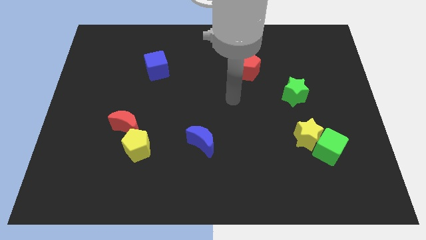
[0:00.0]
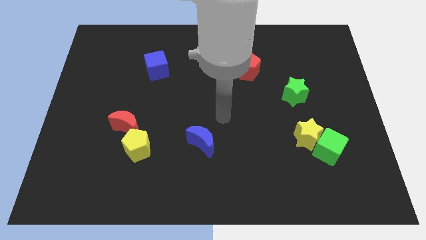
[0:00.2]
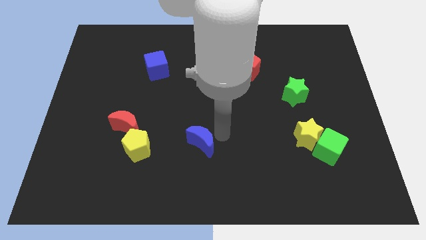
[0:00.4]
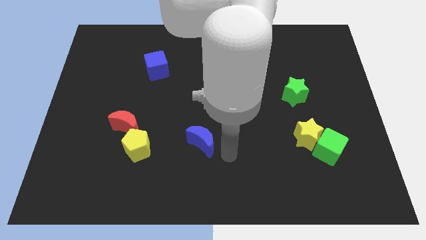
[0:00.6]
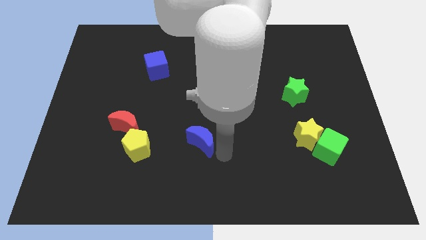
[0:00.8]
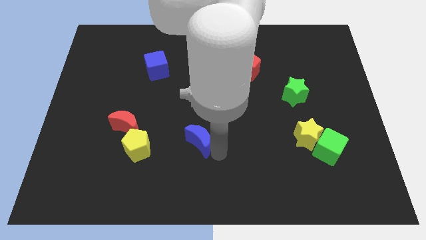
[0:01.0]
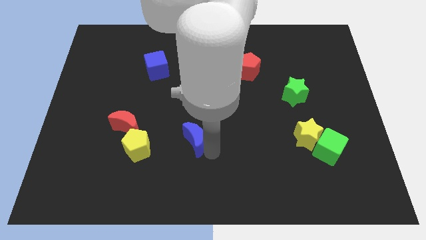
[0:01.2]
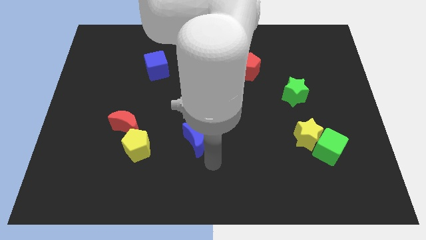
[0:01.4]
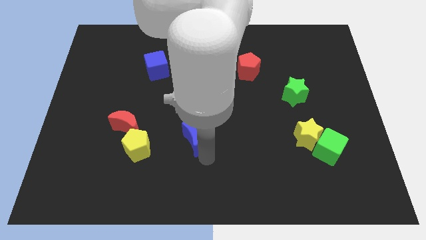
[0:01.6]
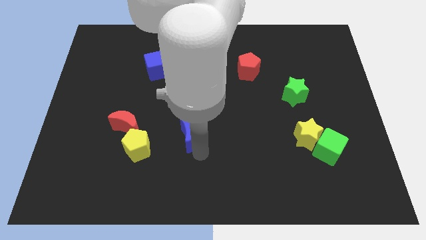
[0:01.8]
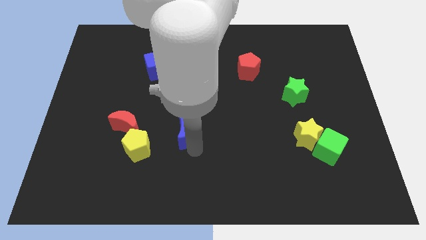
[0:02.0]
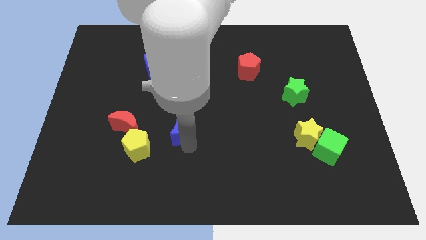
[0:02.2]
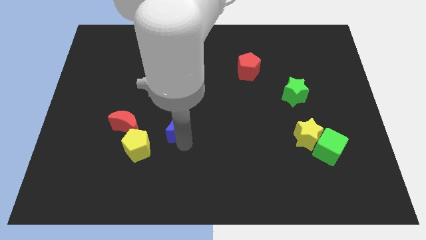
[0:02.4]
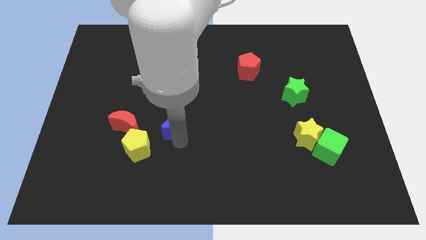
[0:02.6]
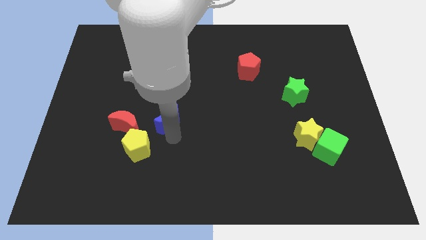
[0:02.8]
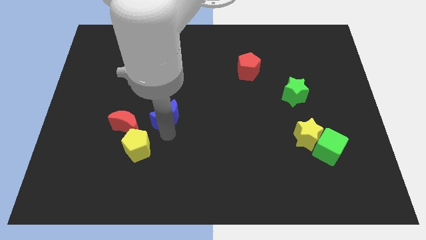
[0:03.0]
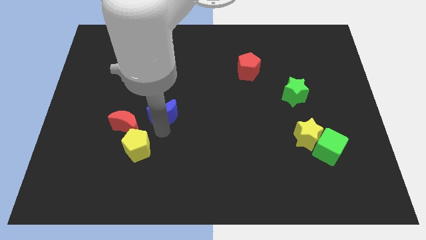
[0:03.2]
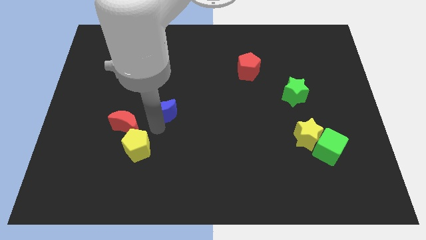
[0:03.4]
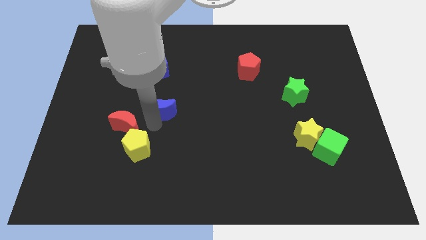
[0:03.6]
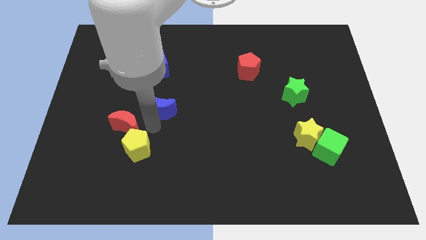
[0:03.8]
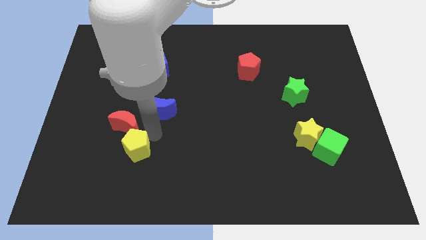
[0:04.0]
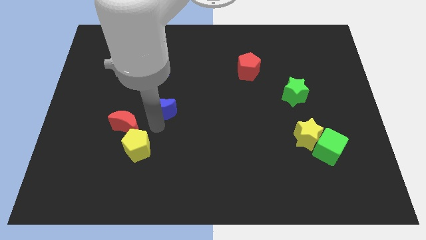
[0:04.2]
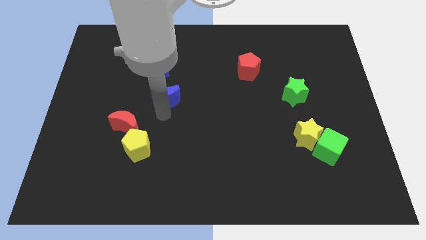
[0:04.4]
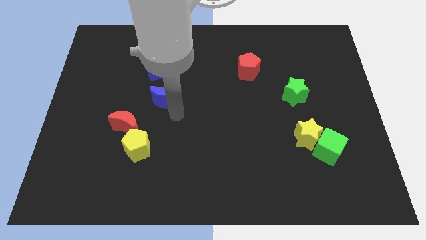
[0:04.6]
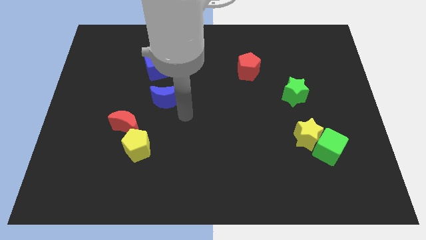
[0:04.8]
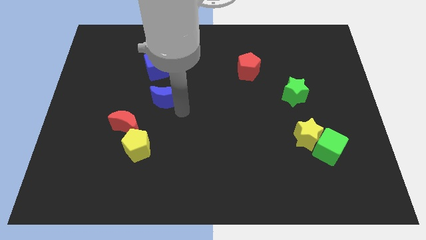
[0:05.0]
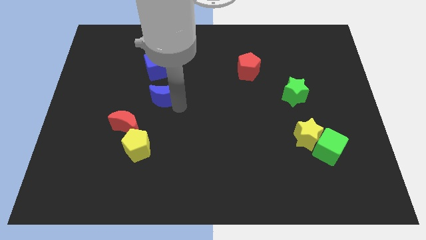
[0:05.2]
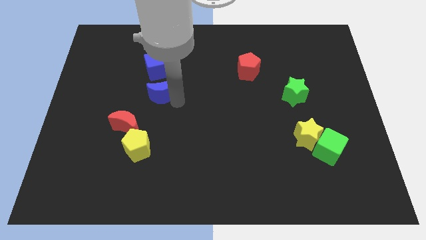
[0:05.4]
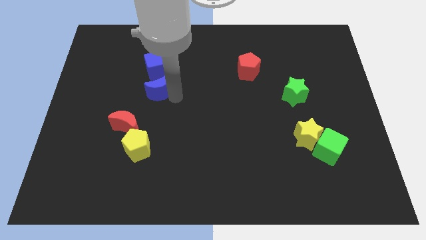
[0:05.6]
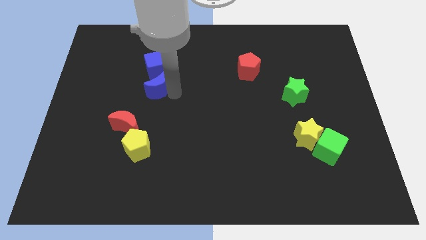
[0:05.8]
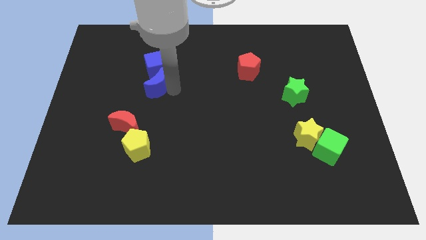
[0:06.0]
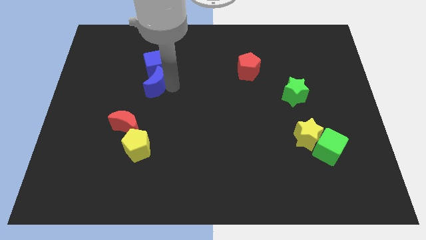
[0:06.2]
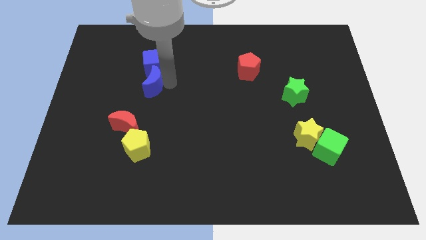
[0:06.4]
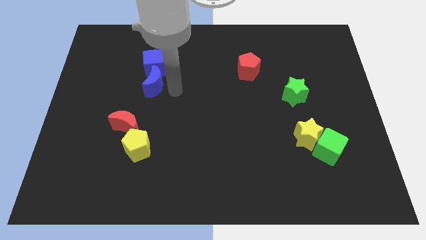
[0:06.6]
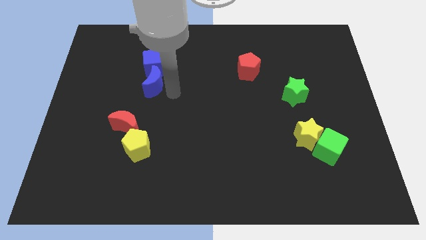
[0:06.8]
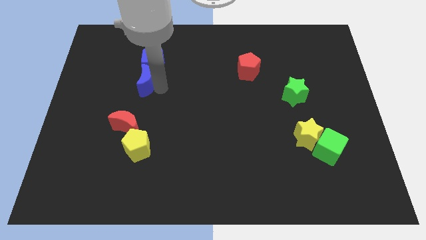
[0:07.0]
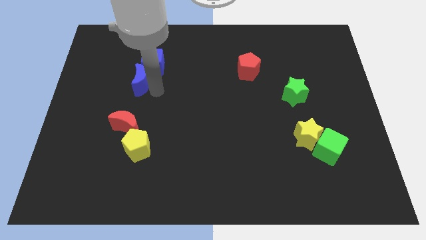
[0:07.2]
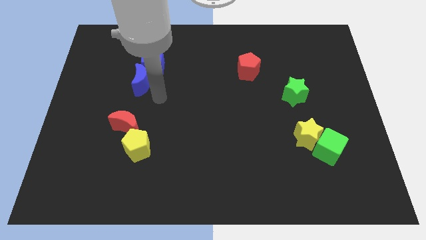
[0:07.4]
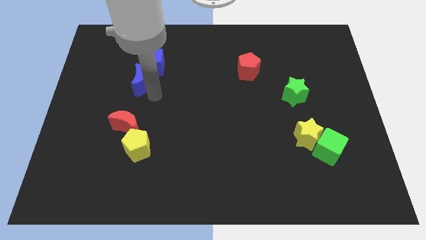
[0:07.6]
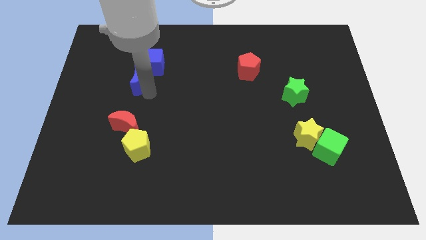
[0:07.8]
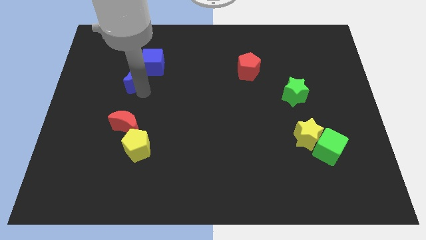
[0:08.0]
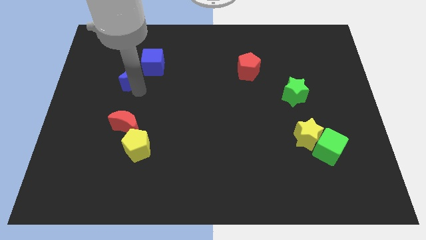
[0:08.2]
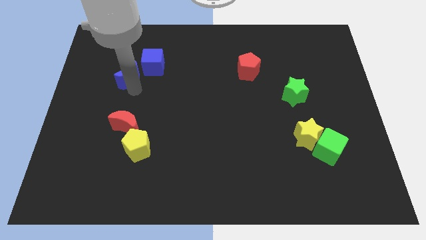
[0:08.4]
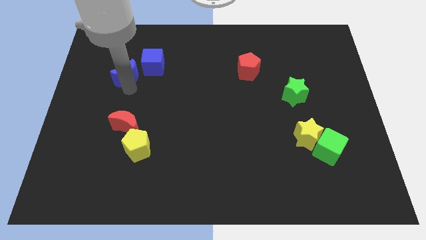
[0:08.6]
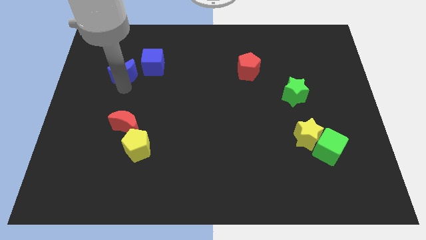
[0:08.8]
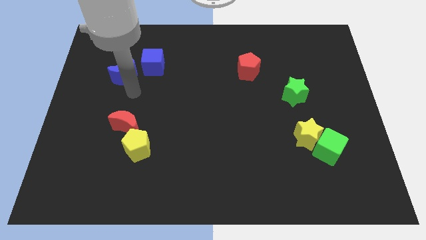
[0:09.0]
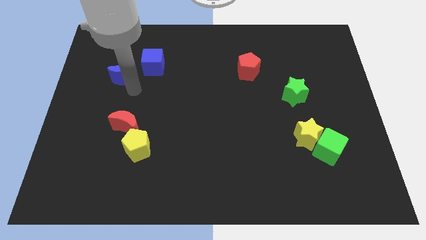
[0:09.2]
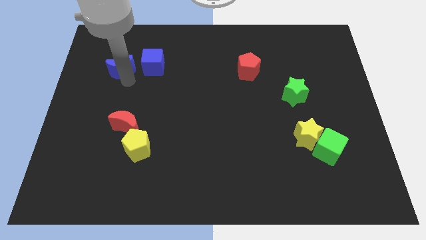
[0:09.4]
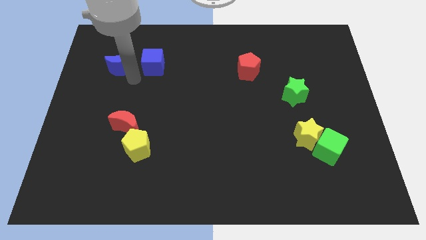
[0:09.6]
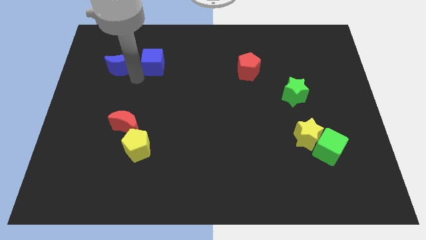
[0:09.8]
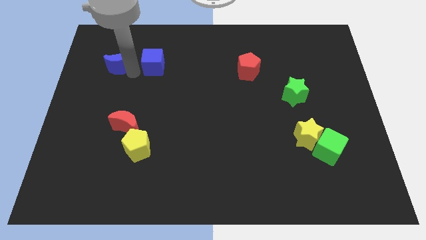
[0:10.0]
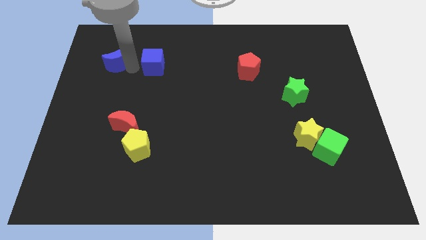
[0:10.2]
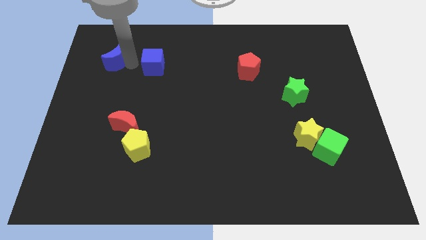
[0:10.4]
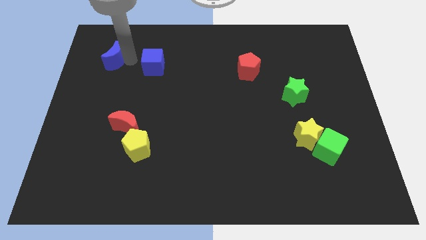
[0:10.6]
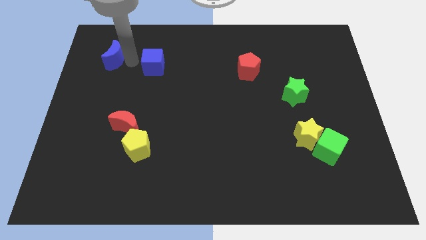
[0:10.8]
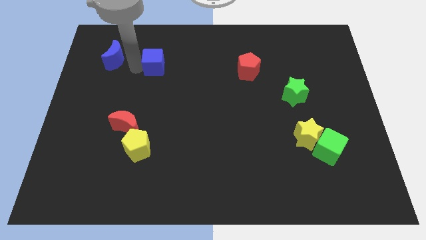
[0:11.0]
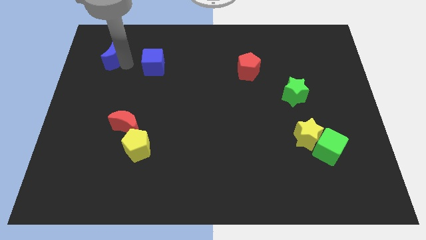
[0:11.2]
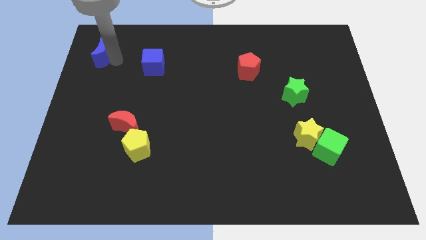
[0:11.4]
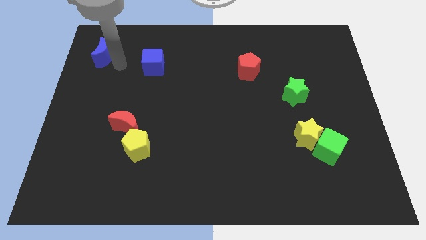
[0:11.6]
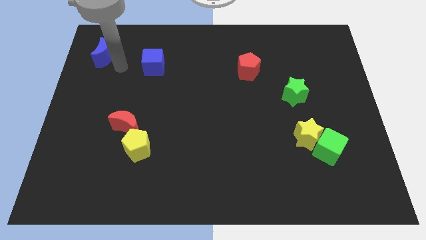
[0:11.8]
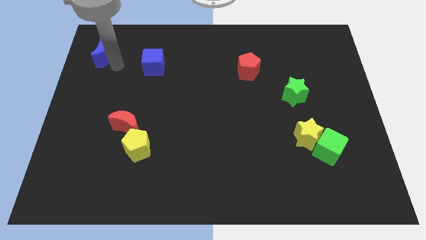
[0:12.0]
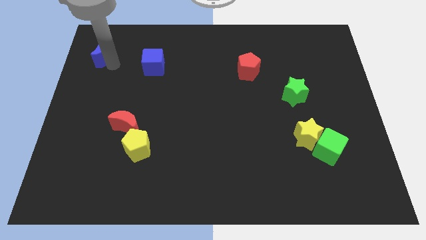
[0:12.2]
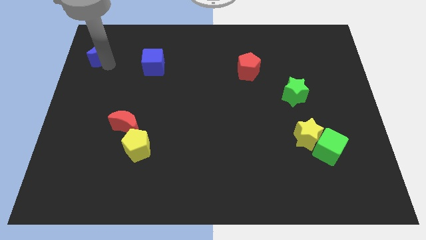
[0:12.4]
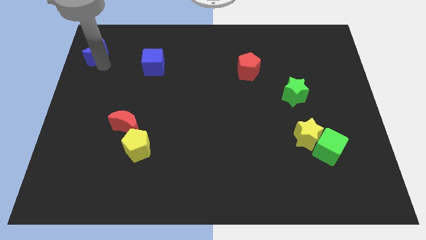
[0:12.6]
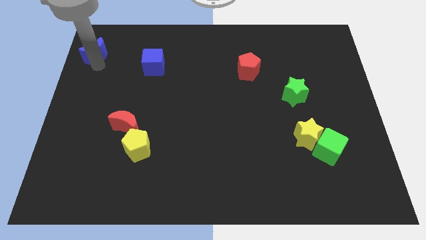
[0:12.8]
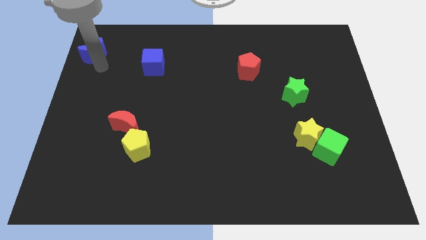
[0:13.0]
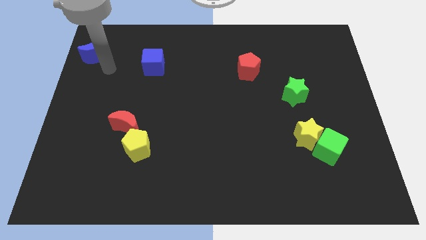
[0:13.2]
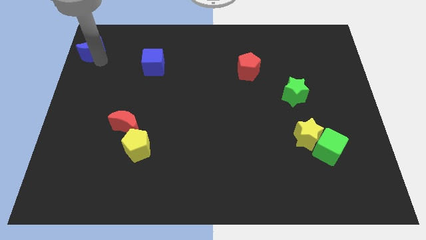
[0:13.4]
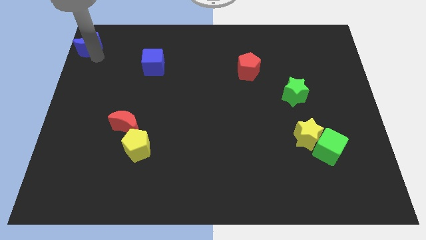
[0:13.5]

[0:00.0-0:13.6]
put the blue moon to the upper left corner

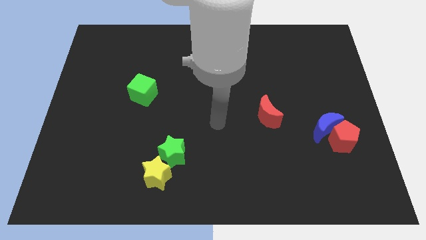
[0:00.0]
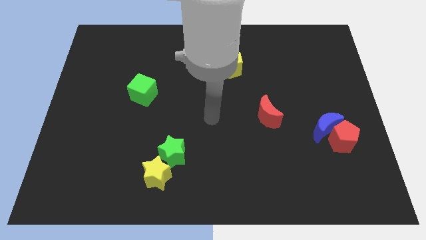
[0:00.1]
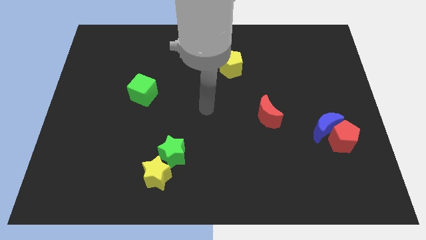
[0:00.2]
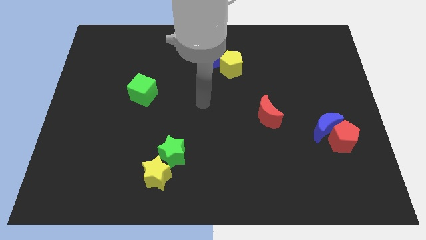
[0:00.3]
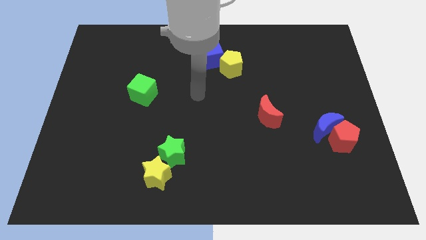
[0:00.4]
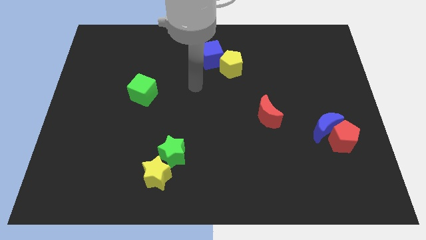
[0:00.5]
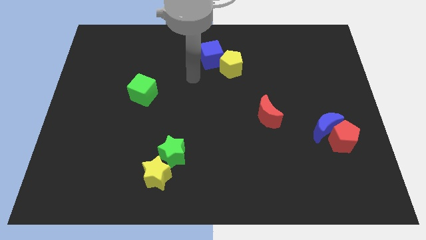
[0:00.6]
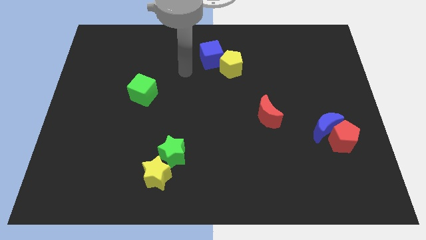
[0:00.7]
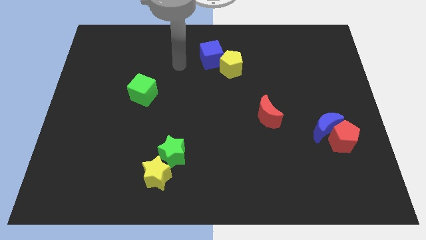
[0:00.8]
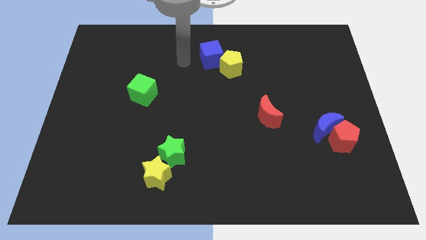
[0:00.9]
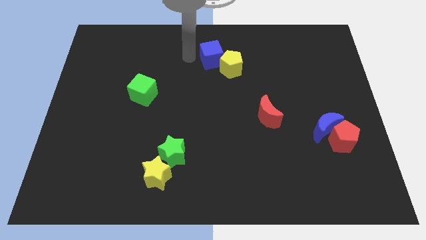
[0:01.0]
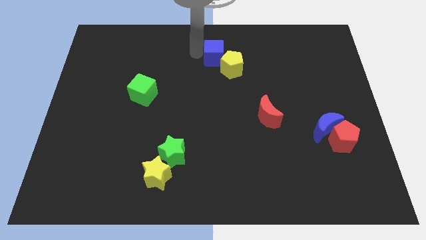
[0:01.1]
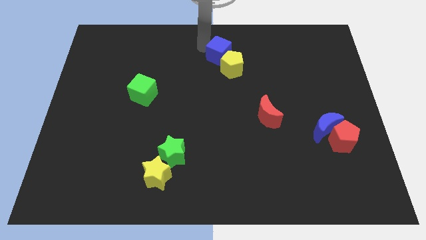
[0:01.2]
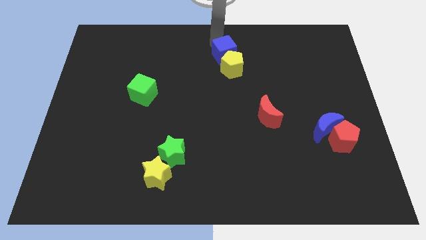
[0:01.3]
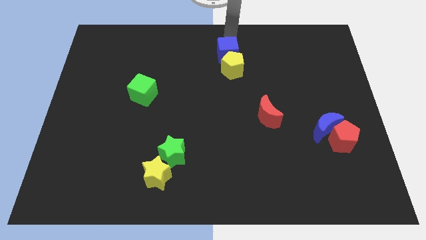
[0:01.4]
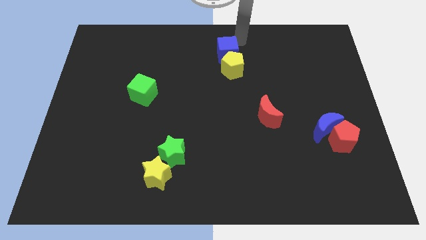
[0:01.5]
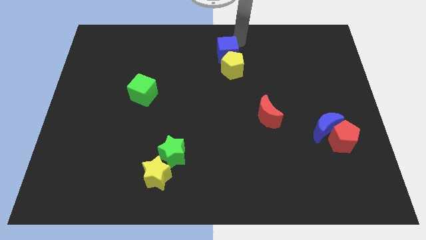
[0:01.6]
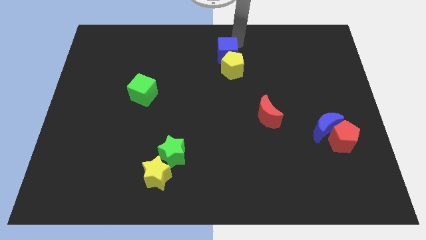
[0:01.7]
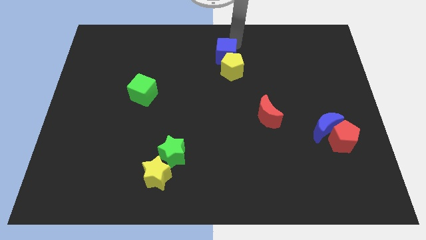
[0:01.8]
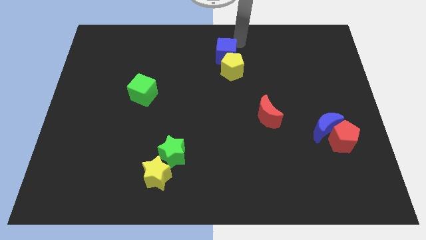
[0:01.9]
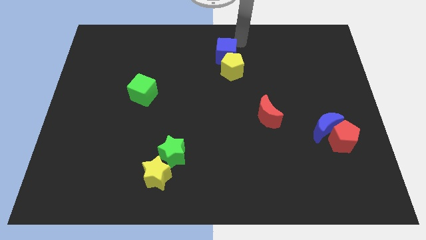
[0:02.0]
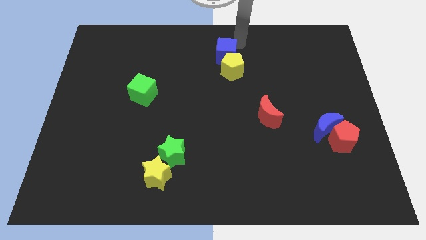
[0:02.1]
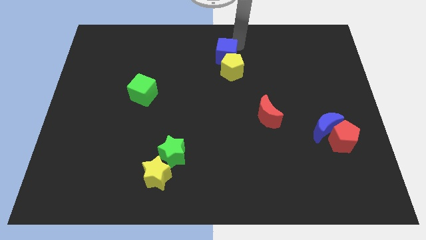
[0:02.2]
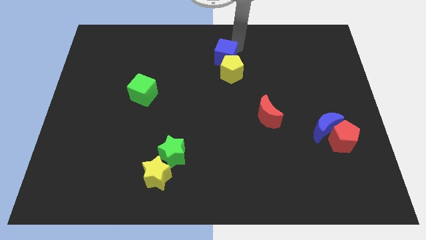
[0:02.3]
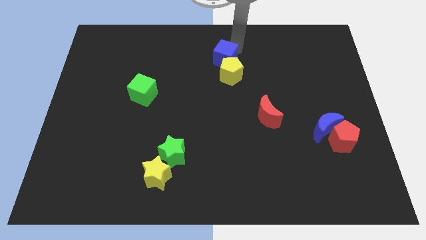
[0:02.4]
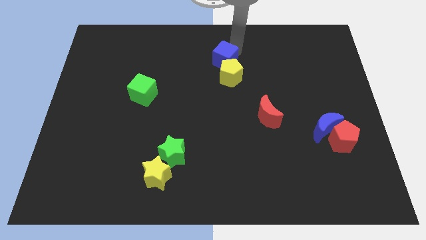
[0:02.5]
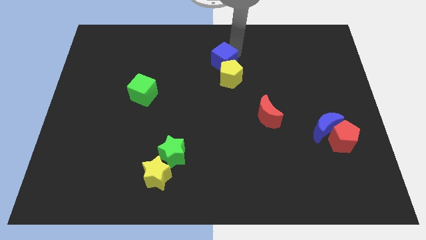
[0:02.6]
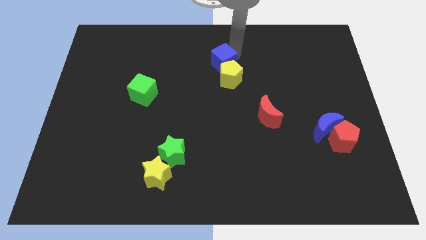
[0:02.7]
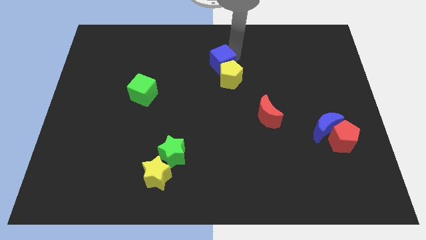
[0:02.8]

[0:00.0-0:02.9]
move the blue cube to the middle of the board
